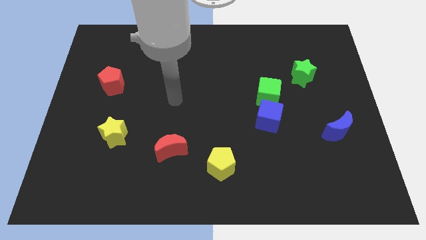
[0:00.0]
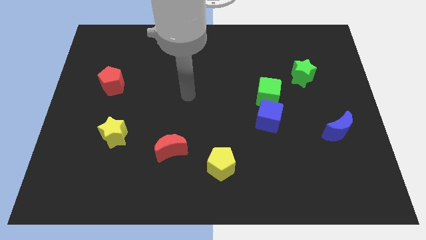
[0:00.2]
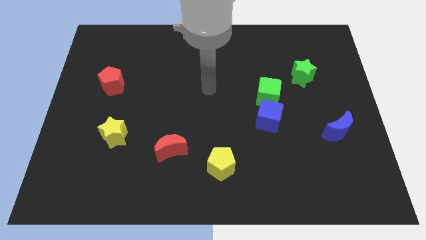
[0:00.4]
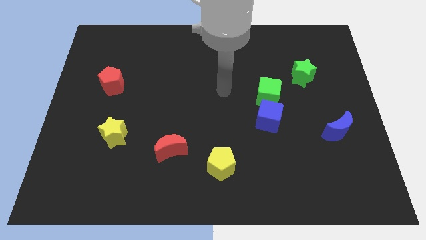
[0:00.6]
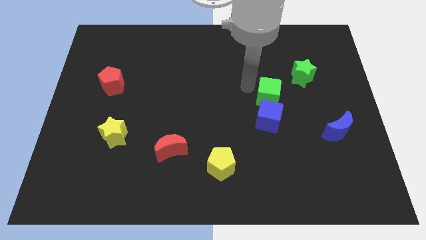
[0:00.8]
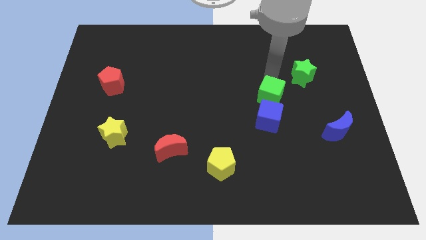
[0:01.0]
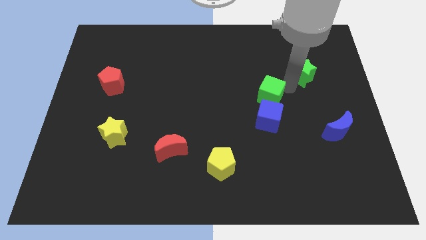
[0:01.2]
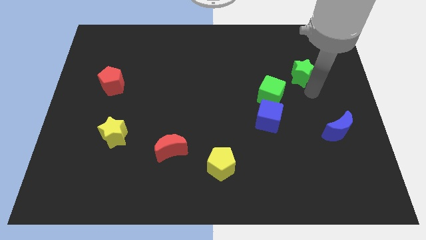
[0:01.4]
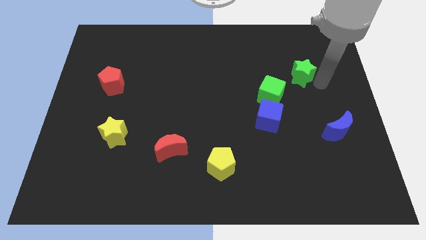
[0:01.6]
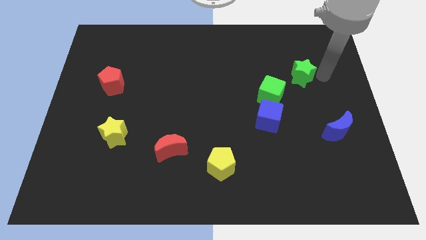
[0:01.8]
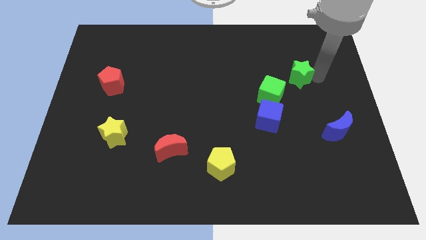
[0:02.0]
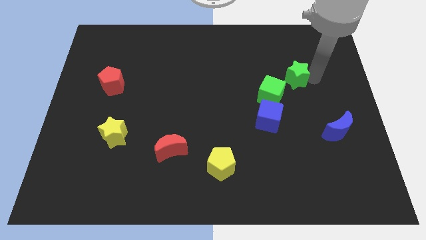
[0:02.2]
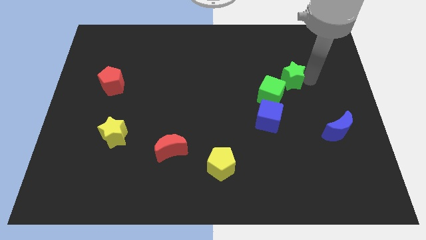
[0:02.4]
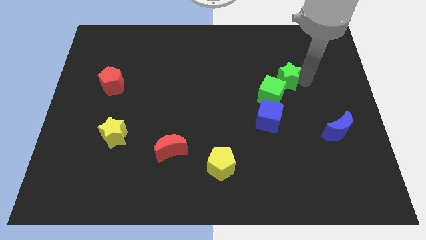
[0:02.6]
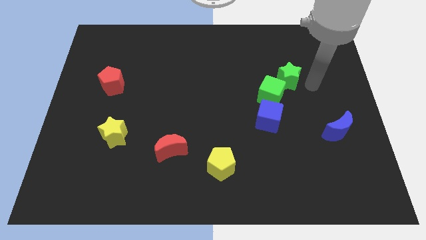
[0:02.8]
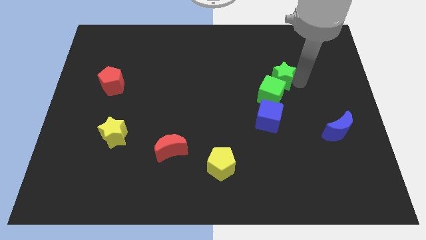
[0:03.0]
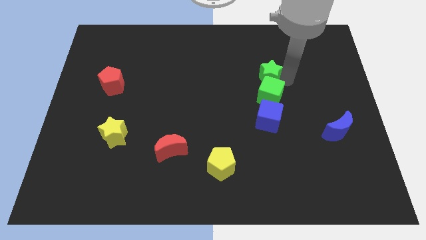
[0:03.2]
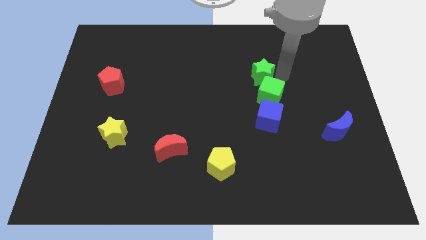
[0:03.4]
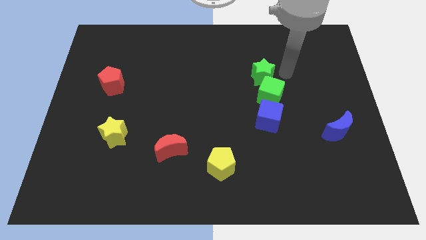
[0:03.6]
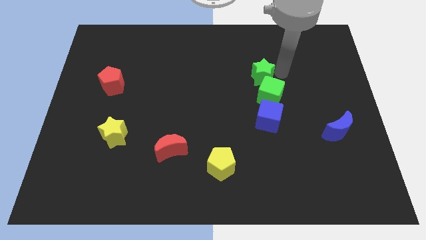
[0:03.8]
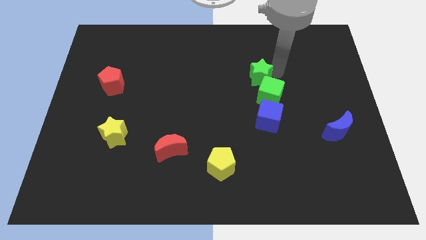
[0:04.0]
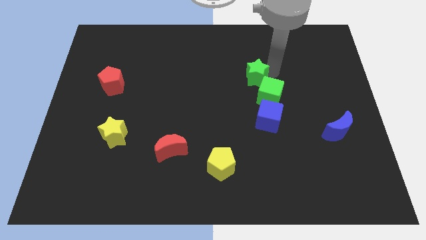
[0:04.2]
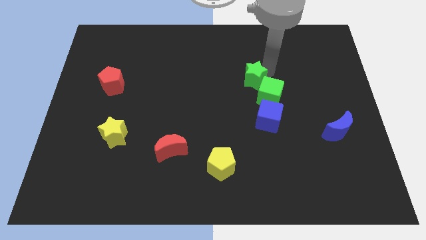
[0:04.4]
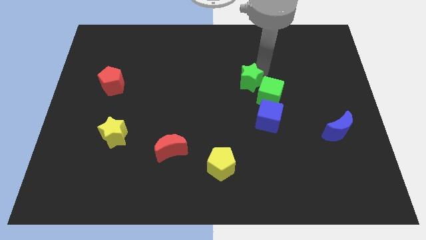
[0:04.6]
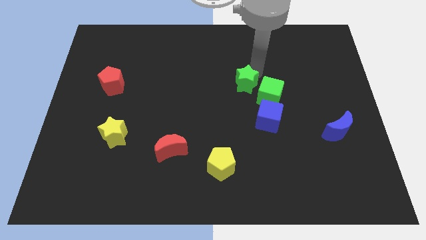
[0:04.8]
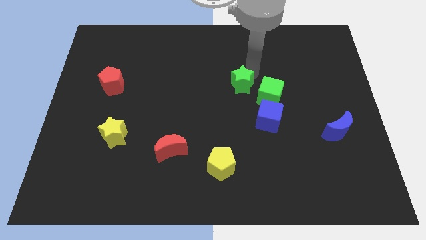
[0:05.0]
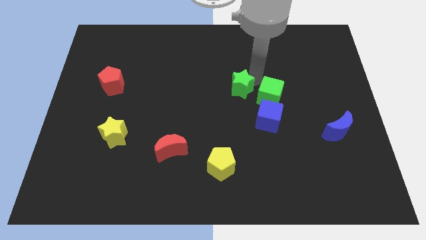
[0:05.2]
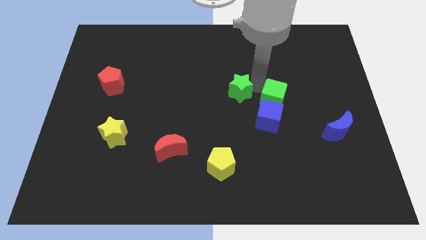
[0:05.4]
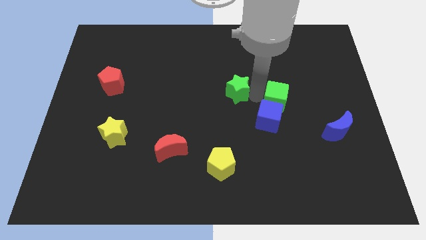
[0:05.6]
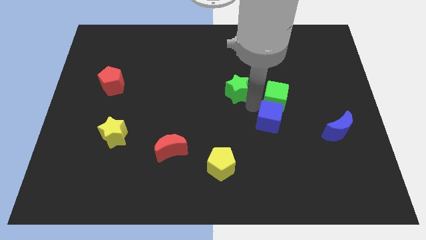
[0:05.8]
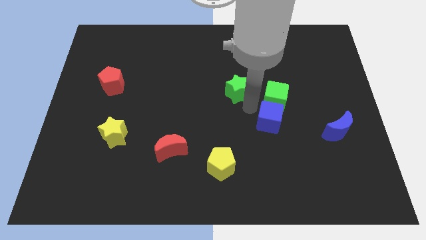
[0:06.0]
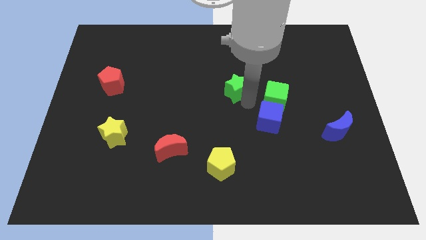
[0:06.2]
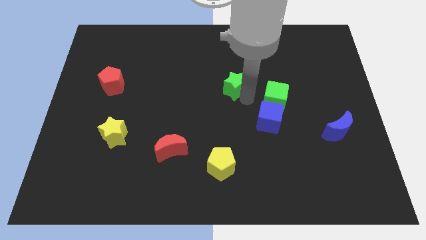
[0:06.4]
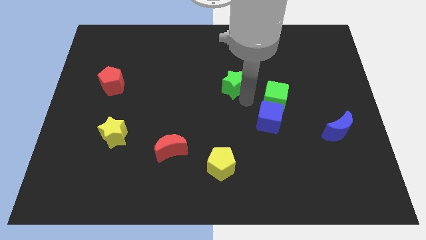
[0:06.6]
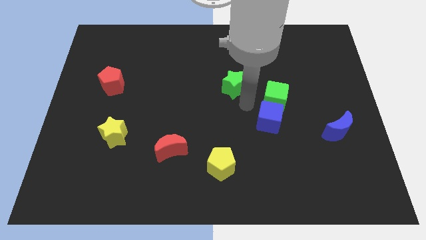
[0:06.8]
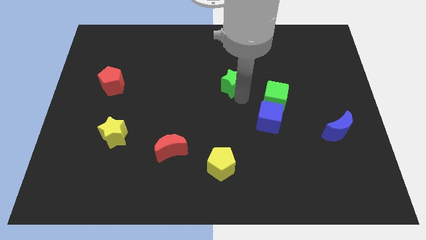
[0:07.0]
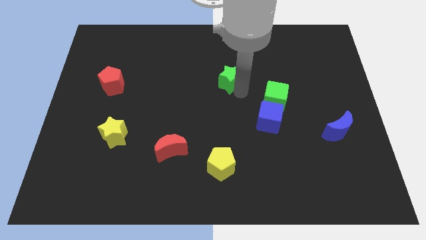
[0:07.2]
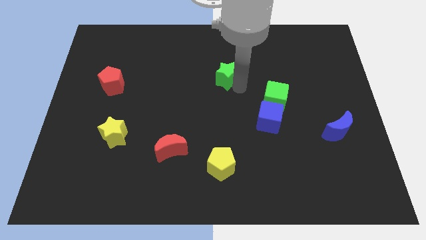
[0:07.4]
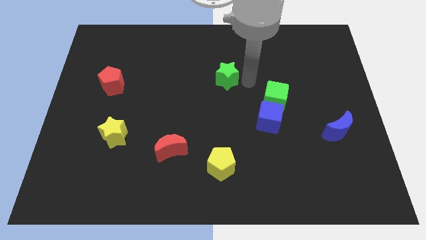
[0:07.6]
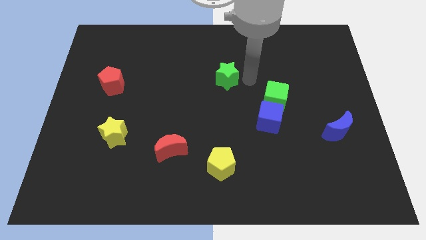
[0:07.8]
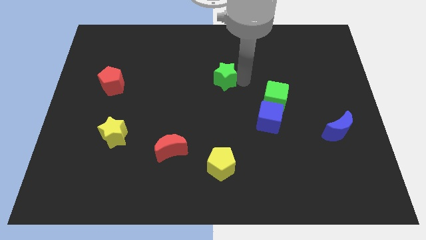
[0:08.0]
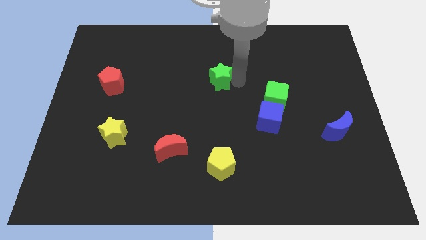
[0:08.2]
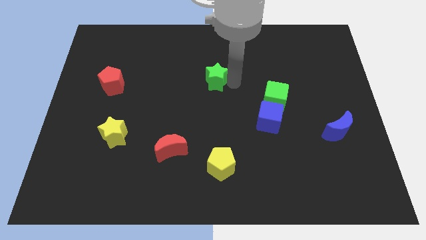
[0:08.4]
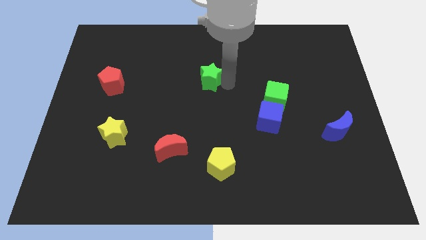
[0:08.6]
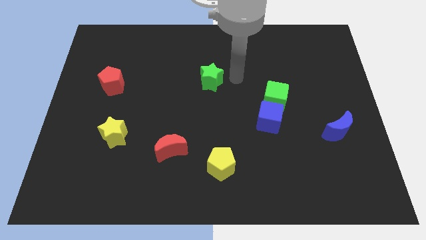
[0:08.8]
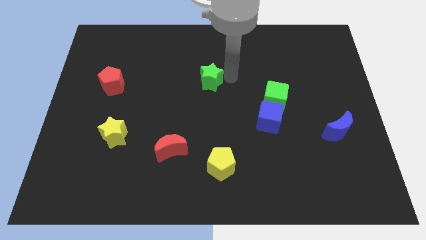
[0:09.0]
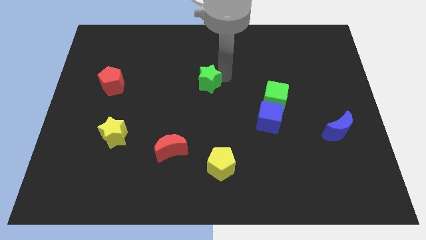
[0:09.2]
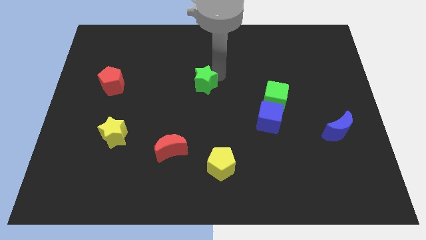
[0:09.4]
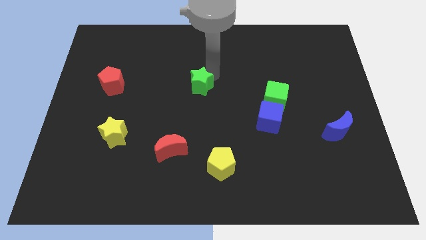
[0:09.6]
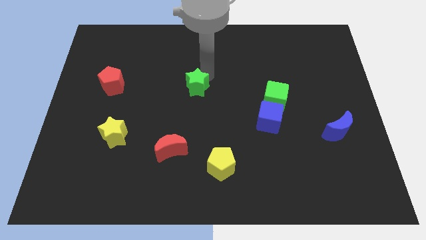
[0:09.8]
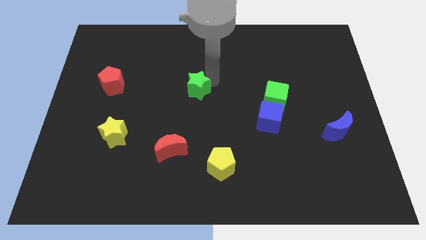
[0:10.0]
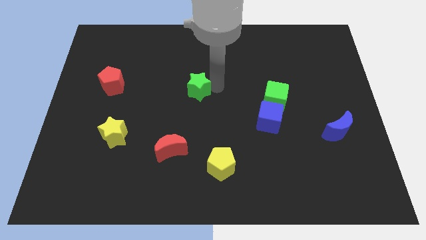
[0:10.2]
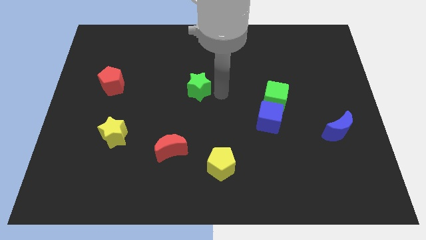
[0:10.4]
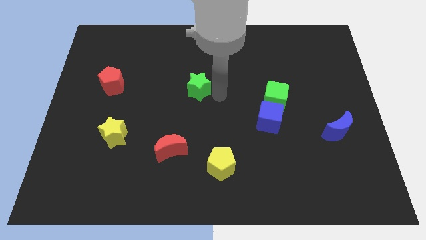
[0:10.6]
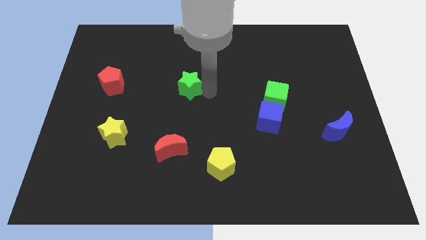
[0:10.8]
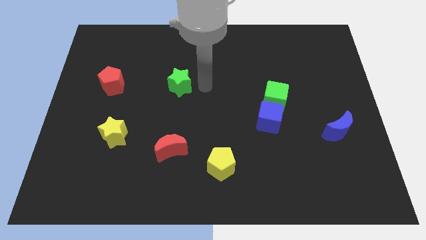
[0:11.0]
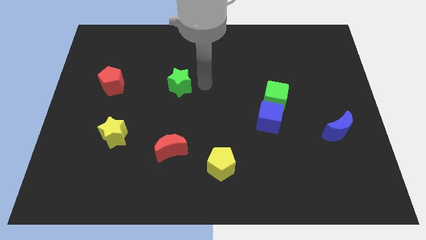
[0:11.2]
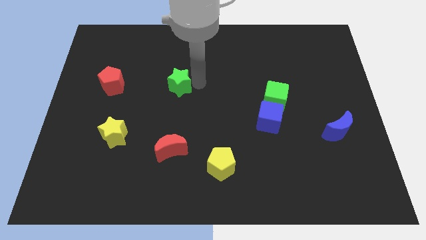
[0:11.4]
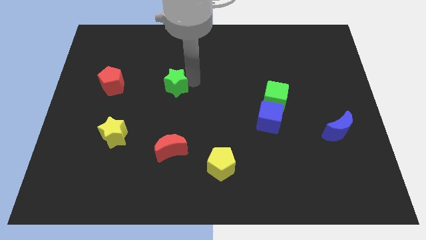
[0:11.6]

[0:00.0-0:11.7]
move the green star to the right side of the red pentagon

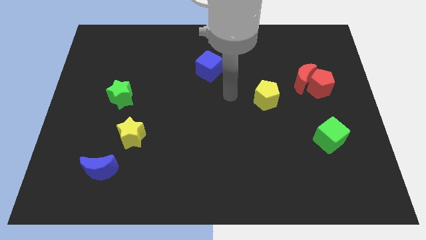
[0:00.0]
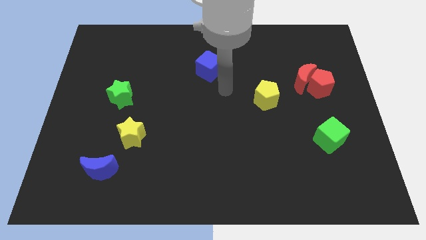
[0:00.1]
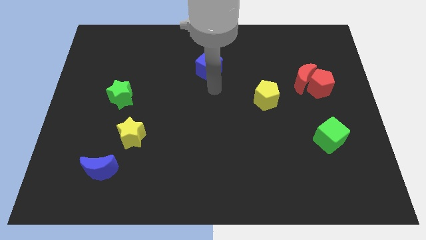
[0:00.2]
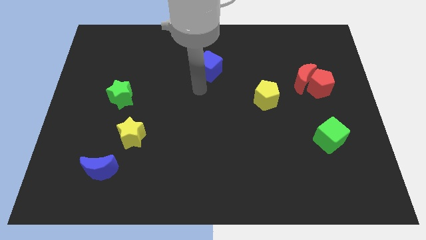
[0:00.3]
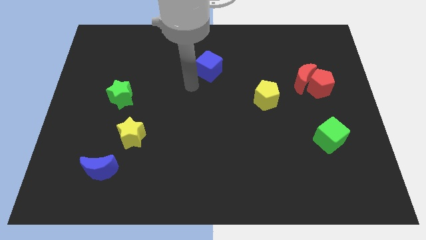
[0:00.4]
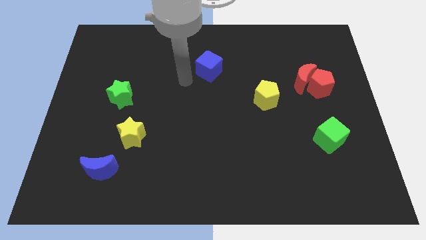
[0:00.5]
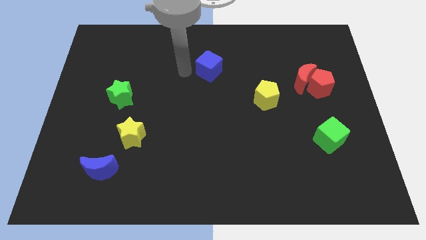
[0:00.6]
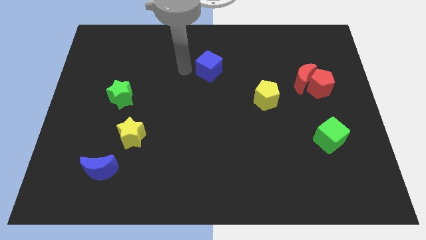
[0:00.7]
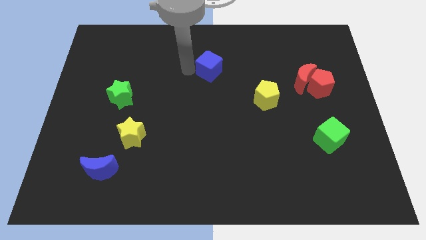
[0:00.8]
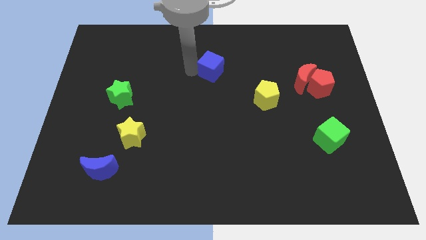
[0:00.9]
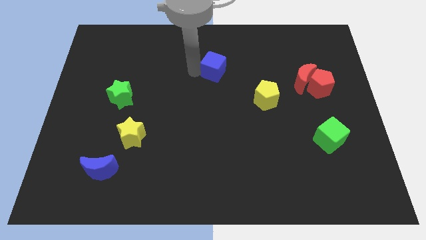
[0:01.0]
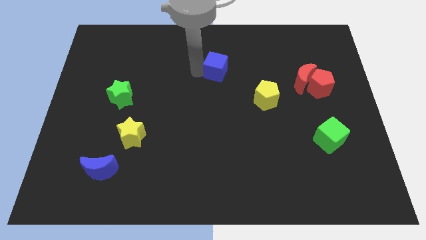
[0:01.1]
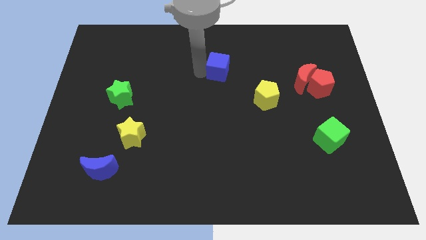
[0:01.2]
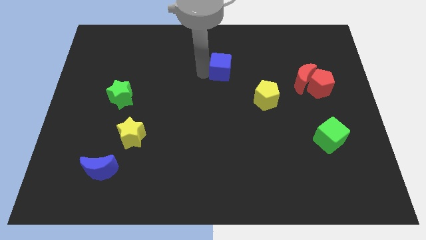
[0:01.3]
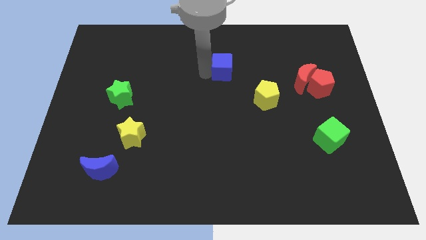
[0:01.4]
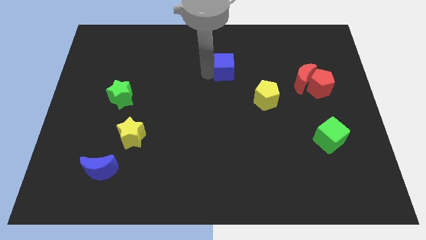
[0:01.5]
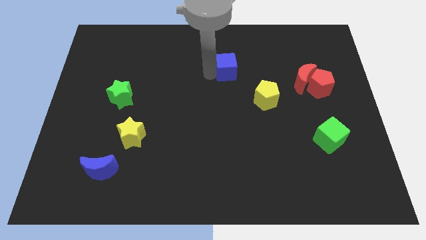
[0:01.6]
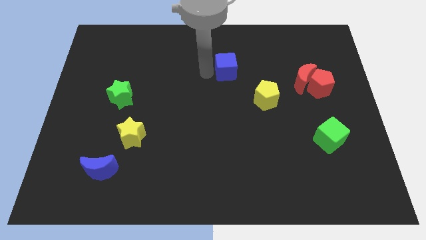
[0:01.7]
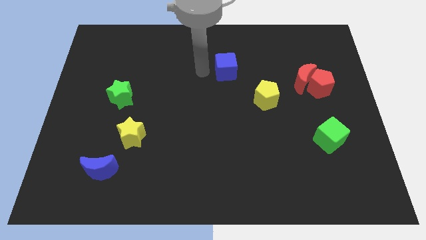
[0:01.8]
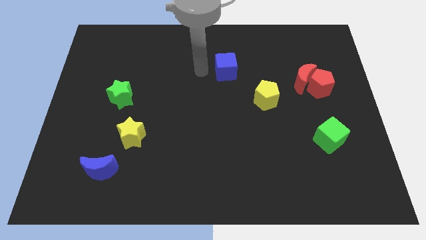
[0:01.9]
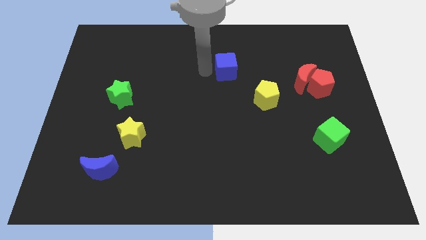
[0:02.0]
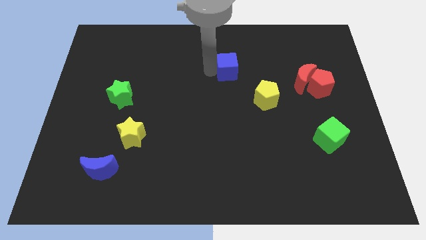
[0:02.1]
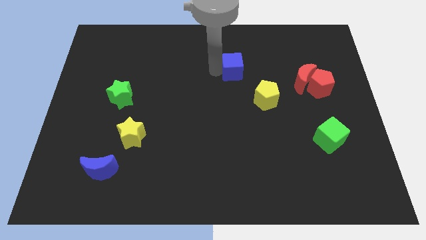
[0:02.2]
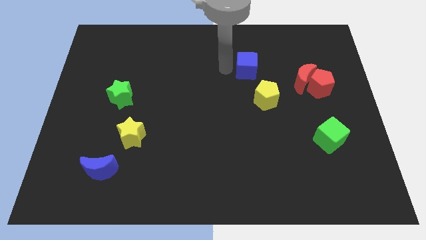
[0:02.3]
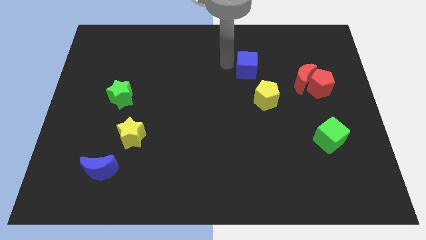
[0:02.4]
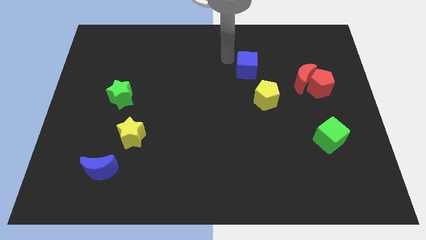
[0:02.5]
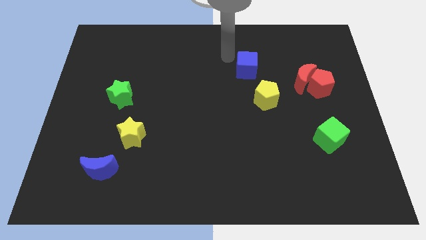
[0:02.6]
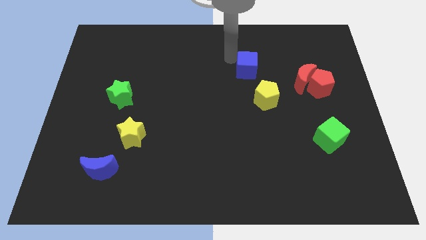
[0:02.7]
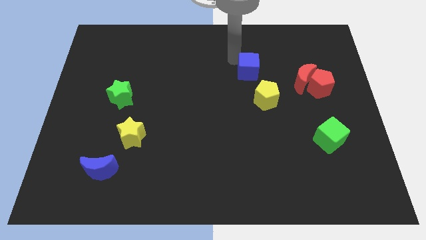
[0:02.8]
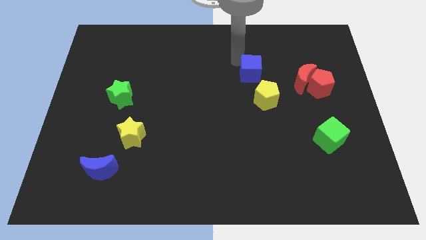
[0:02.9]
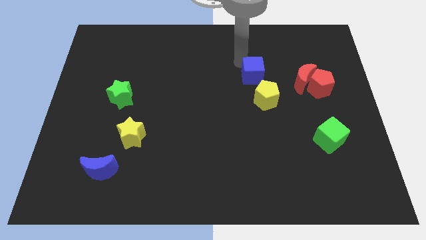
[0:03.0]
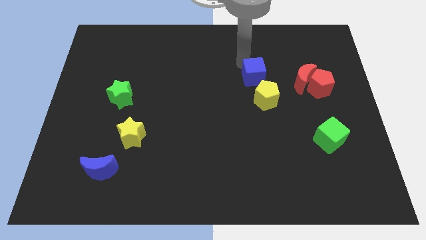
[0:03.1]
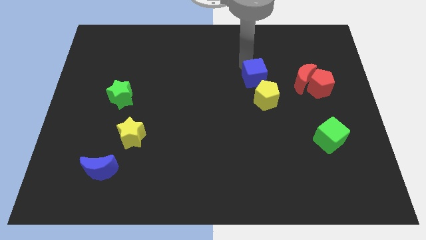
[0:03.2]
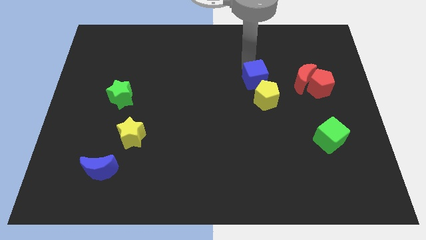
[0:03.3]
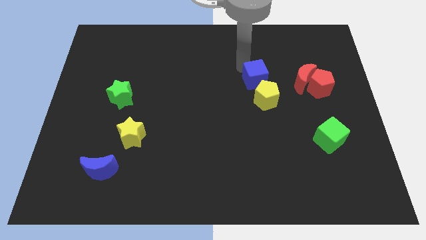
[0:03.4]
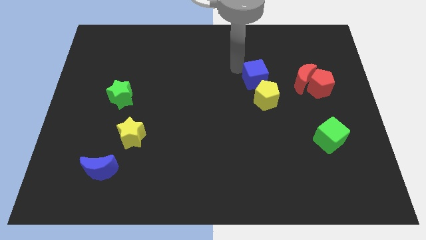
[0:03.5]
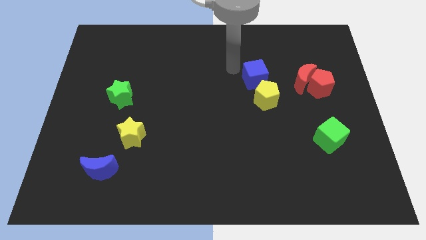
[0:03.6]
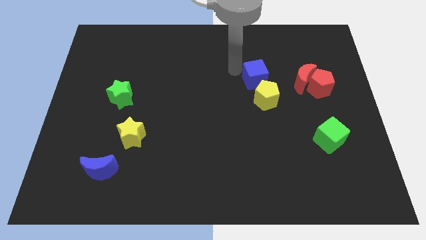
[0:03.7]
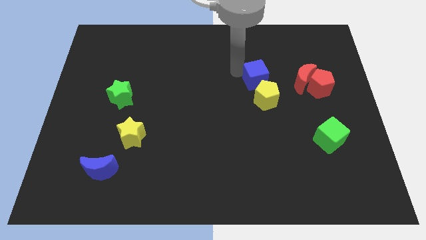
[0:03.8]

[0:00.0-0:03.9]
put the blue cube to the left of the red pentagon
